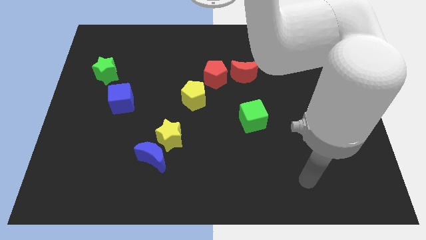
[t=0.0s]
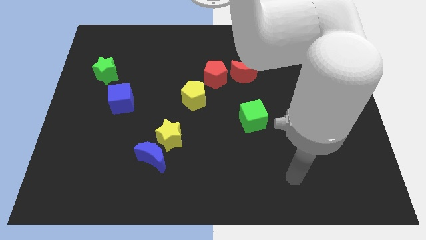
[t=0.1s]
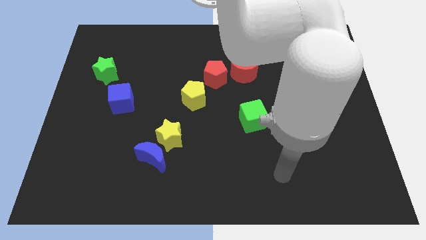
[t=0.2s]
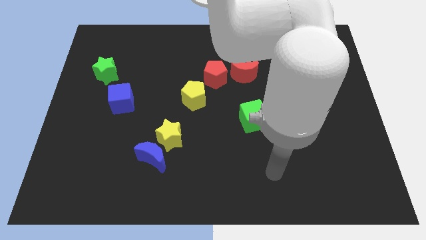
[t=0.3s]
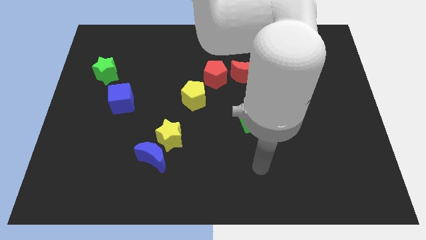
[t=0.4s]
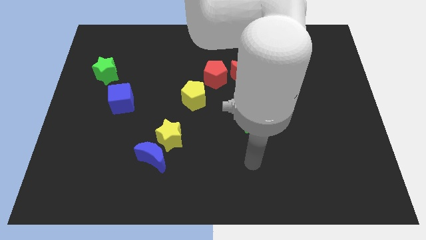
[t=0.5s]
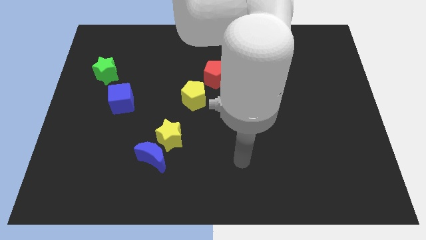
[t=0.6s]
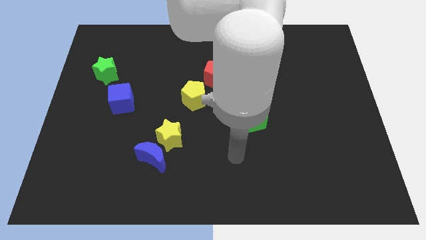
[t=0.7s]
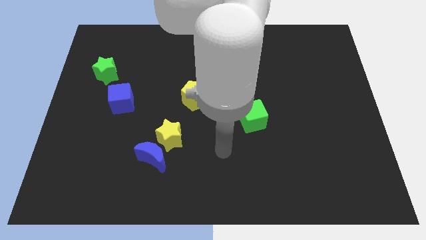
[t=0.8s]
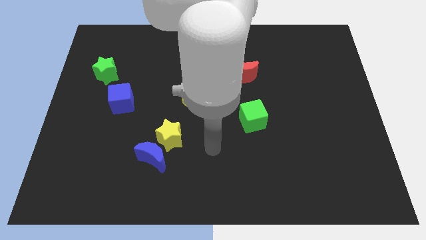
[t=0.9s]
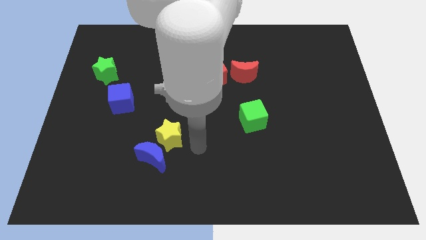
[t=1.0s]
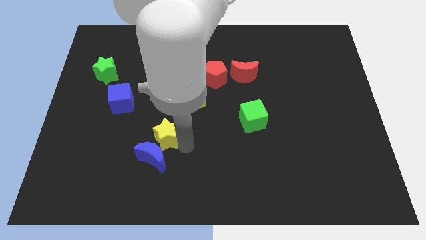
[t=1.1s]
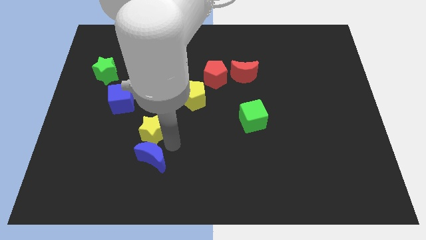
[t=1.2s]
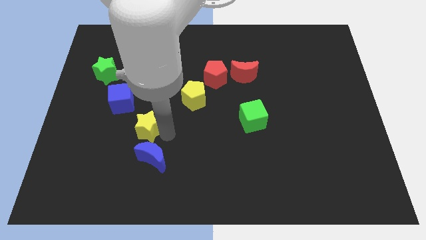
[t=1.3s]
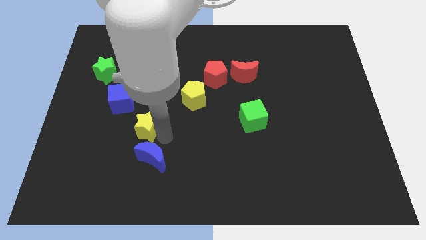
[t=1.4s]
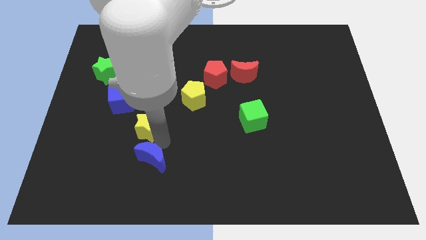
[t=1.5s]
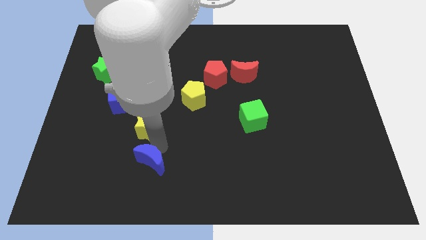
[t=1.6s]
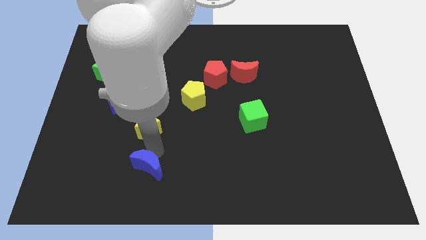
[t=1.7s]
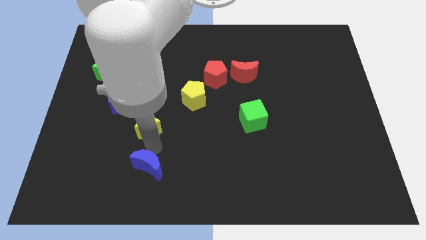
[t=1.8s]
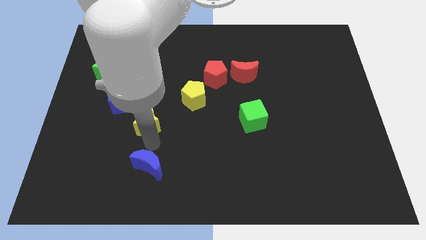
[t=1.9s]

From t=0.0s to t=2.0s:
separate the blue moon from the yellow star

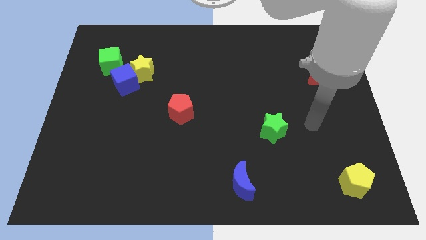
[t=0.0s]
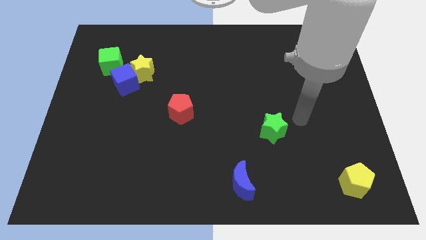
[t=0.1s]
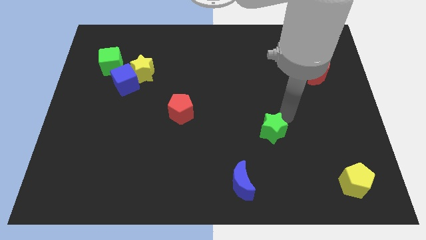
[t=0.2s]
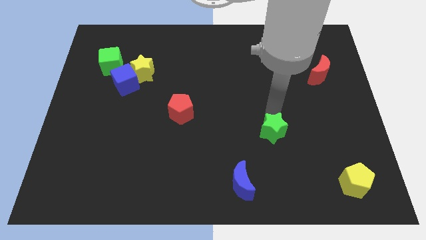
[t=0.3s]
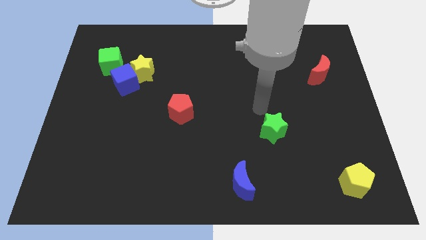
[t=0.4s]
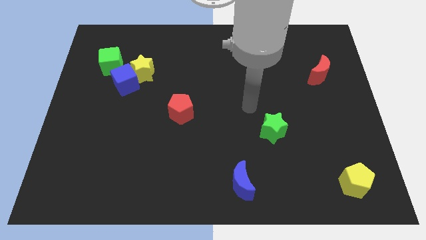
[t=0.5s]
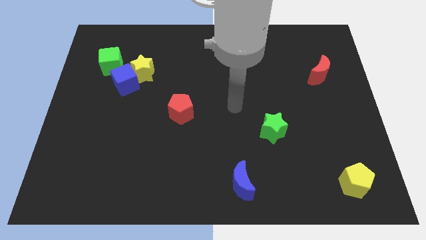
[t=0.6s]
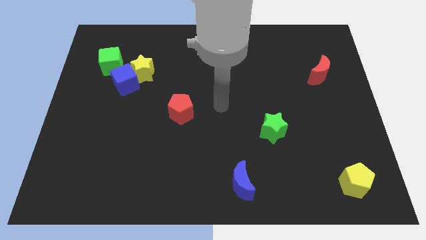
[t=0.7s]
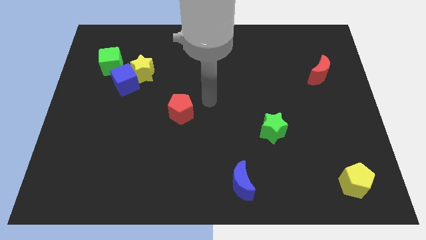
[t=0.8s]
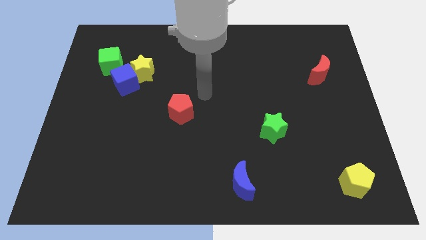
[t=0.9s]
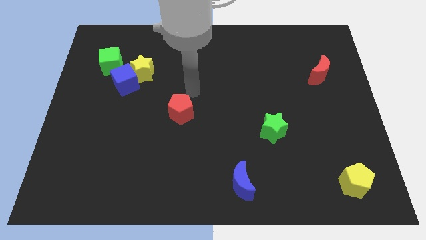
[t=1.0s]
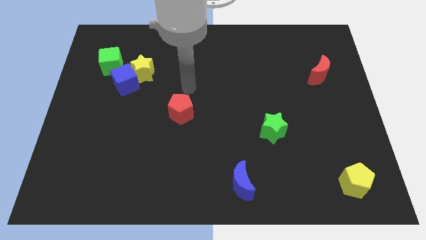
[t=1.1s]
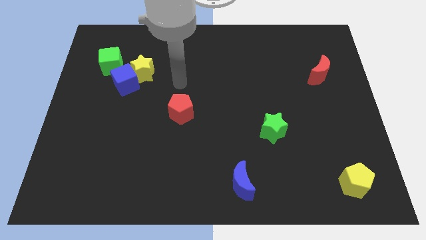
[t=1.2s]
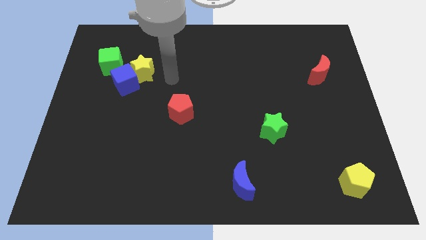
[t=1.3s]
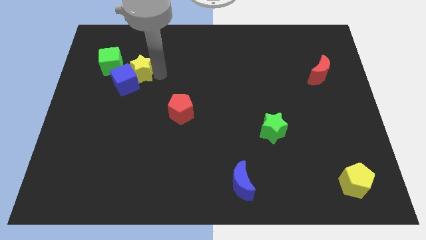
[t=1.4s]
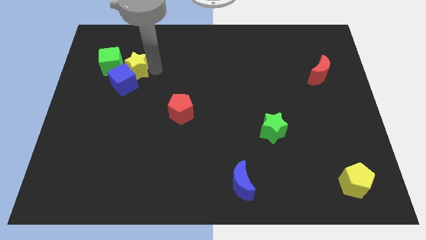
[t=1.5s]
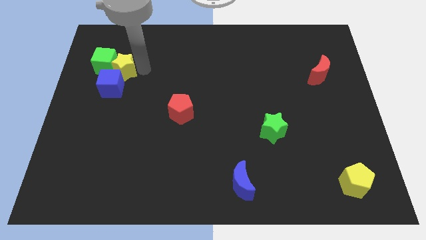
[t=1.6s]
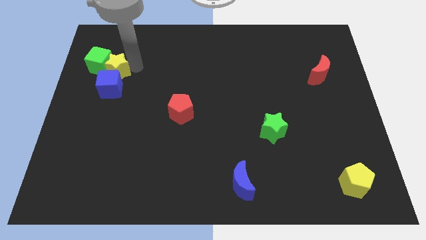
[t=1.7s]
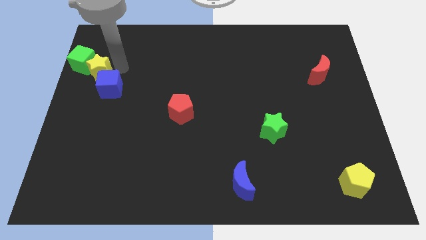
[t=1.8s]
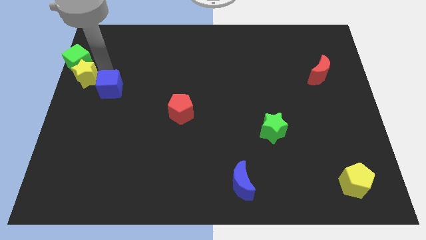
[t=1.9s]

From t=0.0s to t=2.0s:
move the blue cube away from the yellow star and green cube

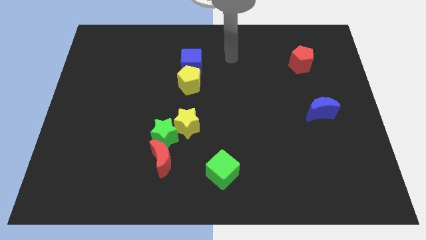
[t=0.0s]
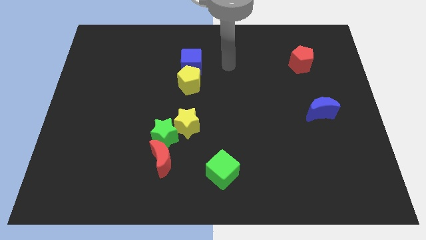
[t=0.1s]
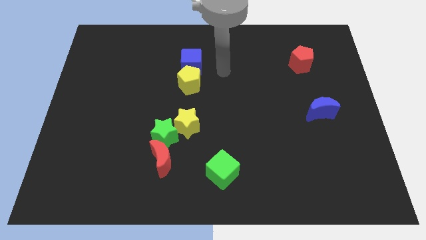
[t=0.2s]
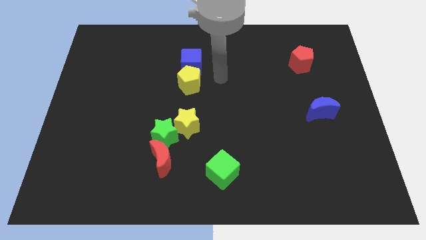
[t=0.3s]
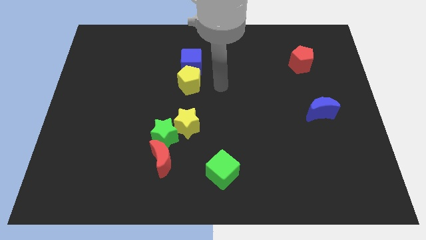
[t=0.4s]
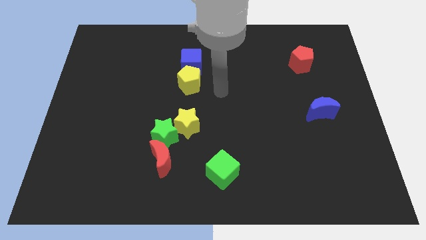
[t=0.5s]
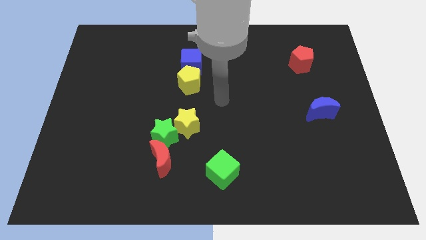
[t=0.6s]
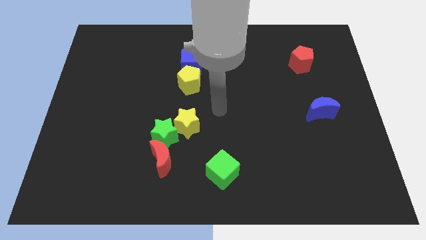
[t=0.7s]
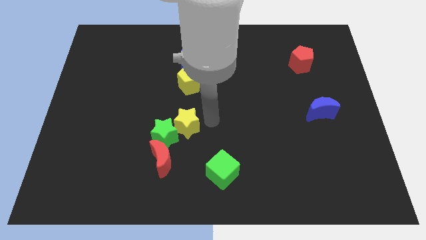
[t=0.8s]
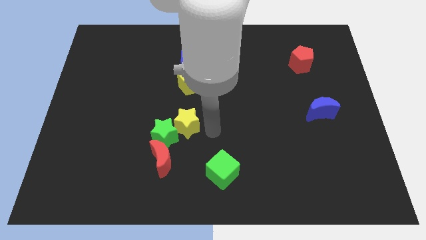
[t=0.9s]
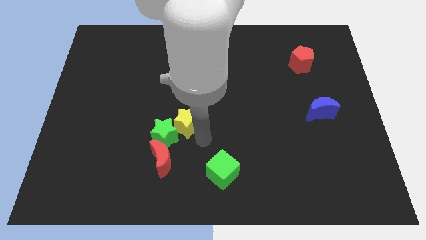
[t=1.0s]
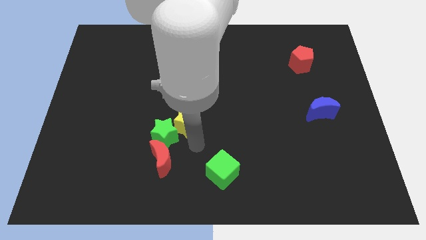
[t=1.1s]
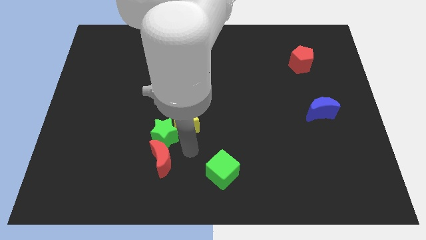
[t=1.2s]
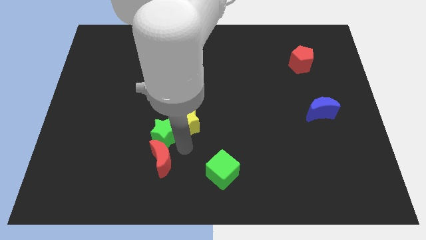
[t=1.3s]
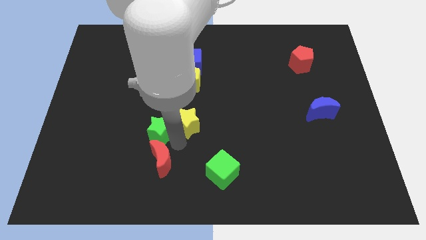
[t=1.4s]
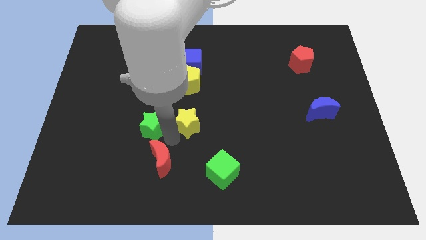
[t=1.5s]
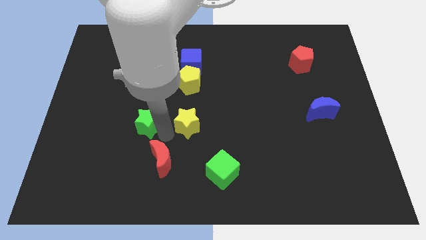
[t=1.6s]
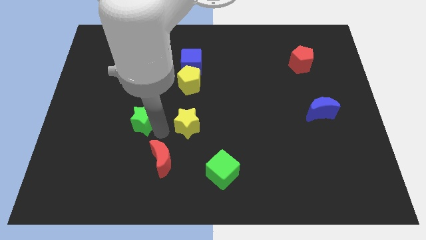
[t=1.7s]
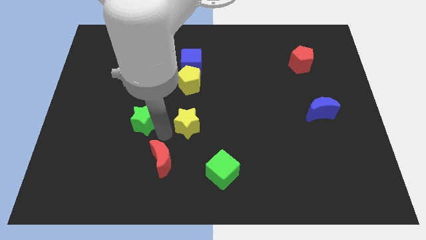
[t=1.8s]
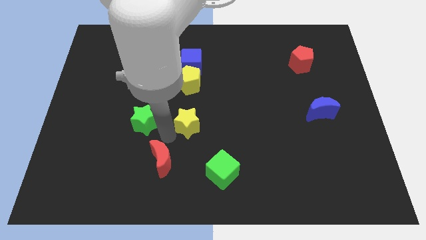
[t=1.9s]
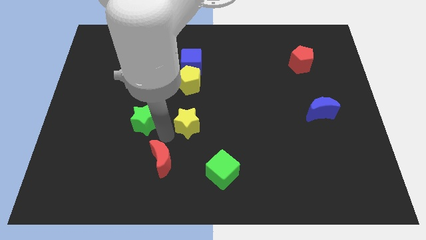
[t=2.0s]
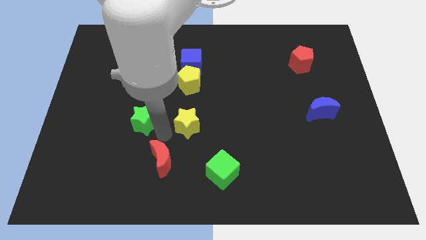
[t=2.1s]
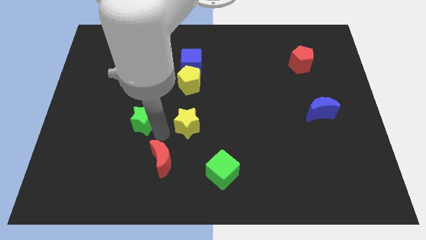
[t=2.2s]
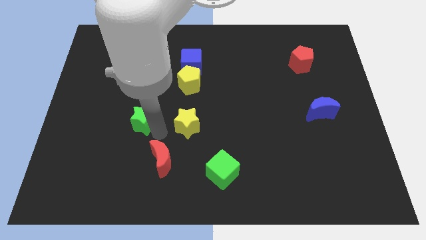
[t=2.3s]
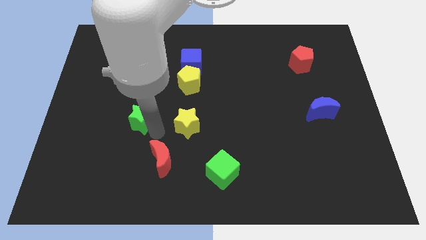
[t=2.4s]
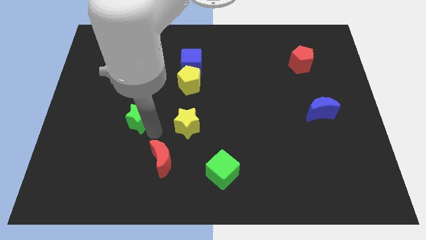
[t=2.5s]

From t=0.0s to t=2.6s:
separate the green star from the yellow star and red moon

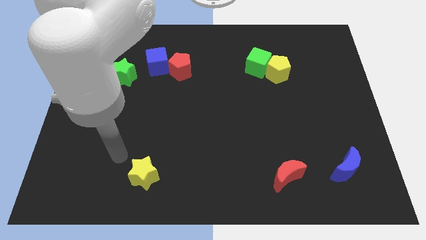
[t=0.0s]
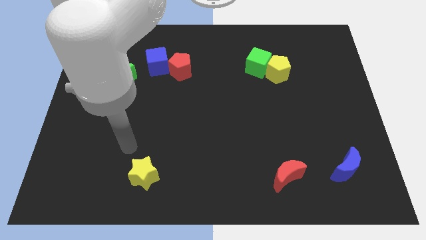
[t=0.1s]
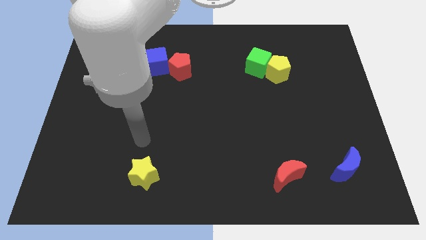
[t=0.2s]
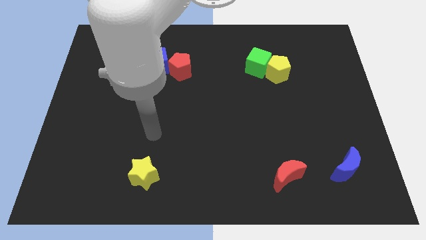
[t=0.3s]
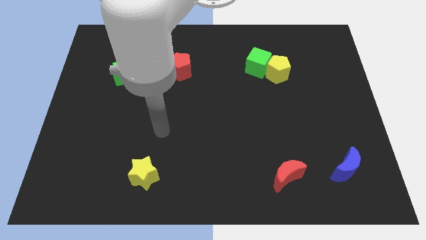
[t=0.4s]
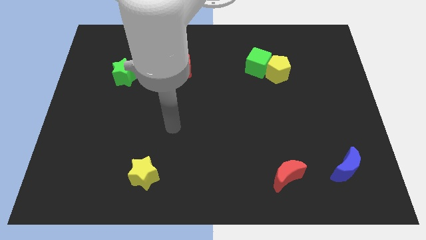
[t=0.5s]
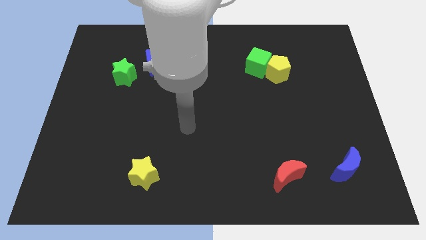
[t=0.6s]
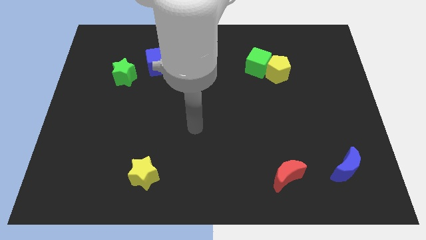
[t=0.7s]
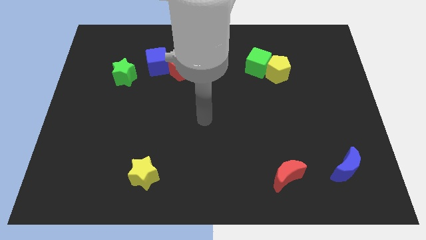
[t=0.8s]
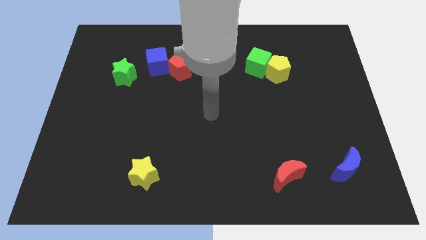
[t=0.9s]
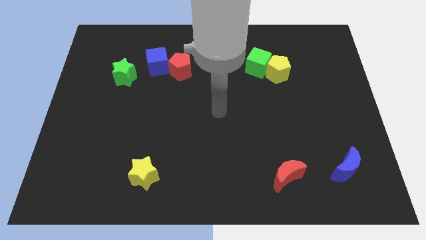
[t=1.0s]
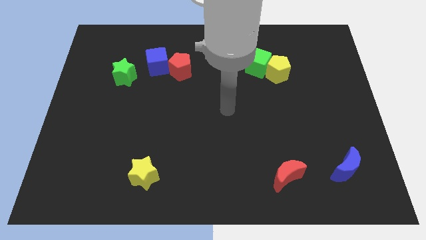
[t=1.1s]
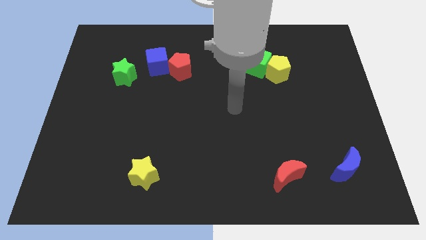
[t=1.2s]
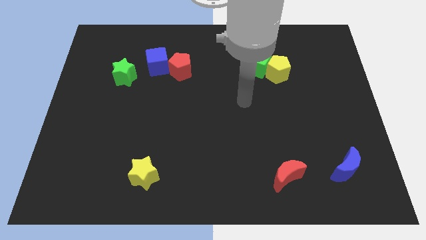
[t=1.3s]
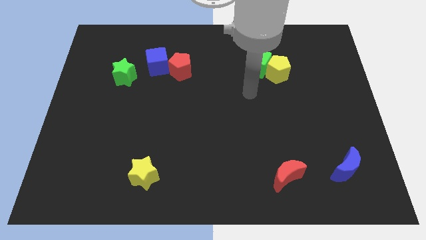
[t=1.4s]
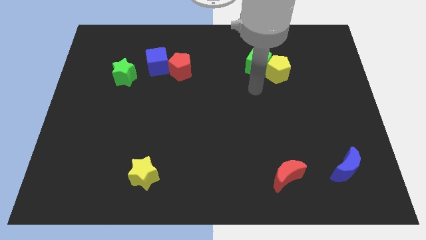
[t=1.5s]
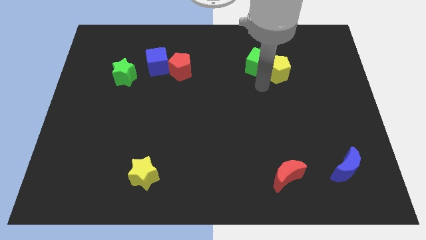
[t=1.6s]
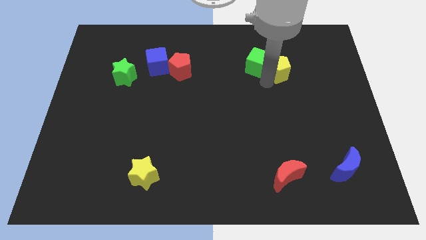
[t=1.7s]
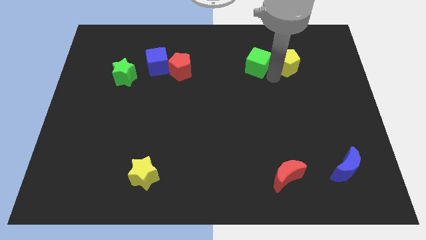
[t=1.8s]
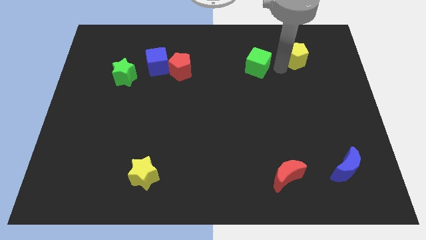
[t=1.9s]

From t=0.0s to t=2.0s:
pull the green cube apart from the yellow pentagon

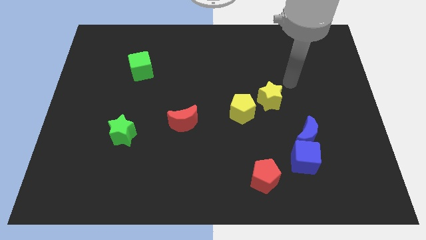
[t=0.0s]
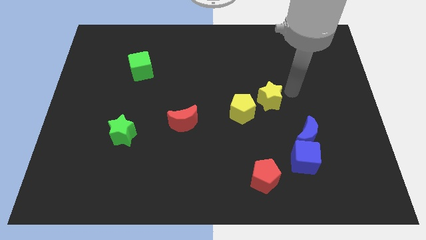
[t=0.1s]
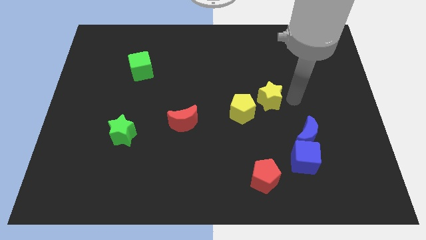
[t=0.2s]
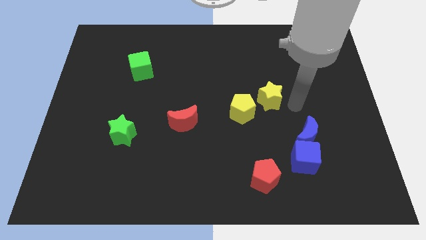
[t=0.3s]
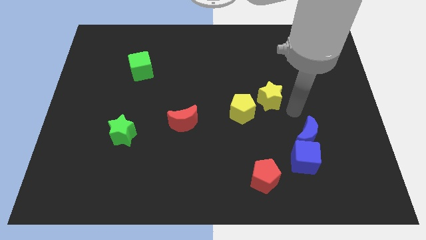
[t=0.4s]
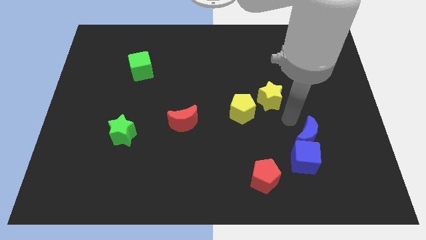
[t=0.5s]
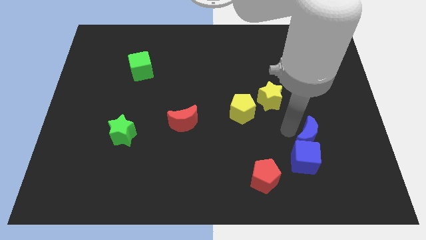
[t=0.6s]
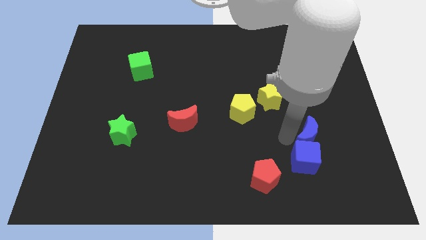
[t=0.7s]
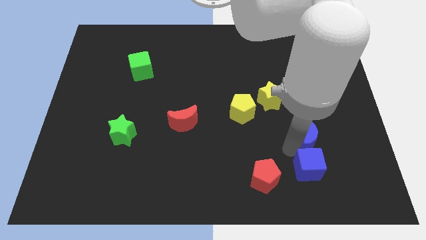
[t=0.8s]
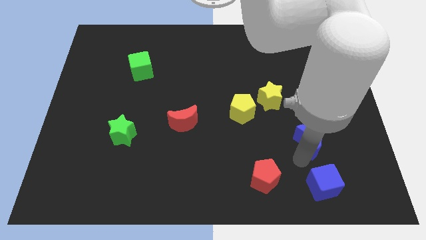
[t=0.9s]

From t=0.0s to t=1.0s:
move the blue moon away from the blue cube
